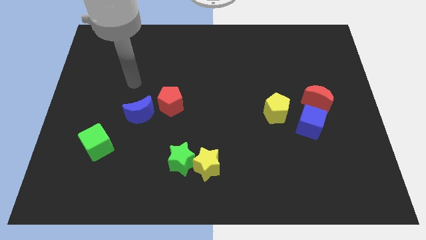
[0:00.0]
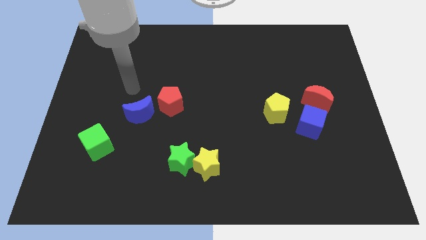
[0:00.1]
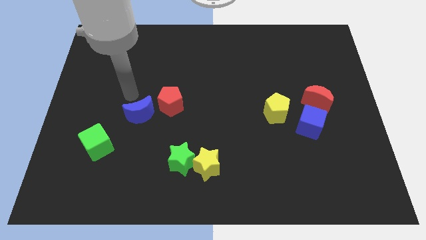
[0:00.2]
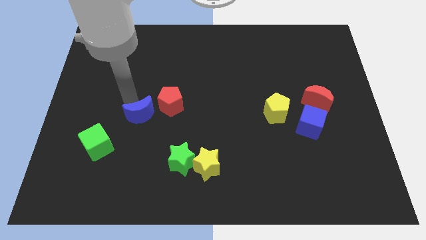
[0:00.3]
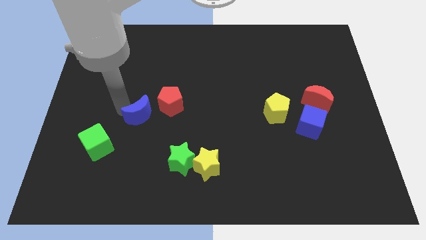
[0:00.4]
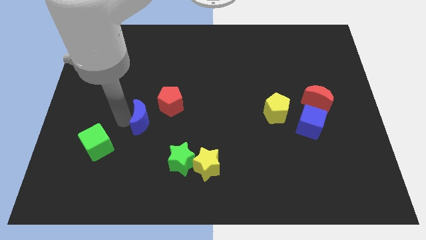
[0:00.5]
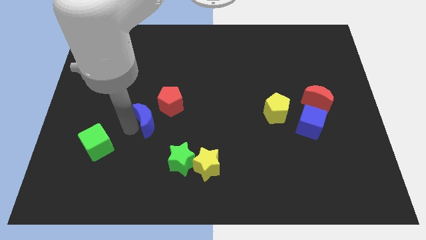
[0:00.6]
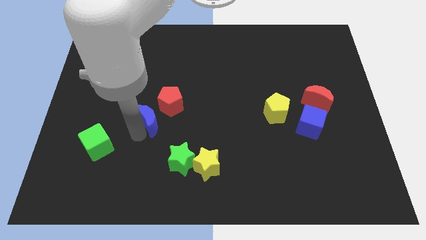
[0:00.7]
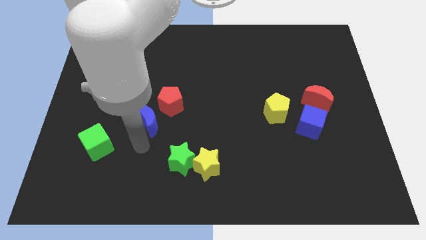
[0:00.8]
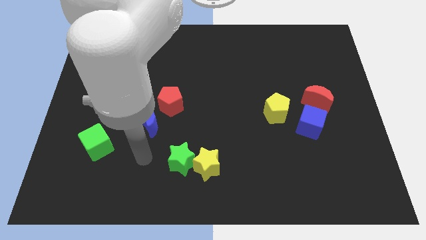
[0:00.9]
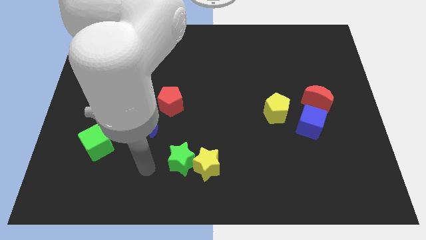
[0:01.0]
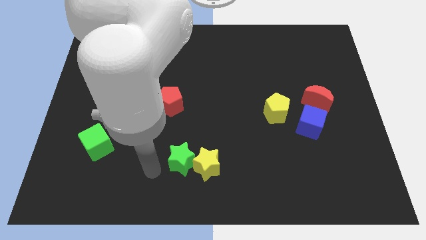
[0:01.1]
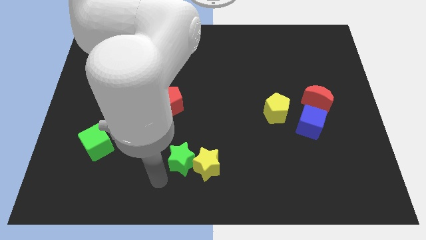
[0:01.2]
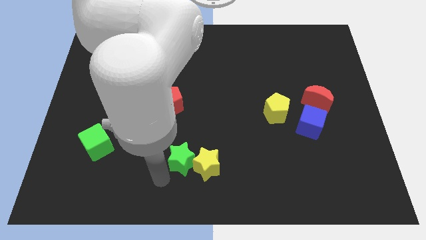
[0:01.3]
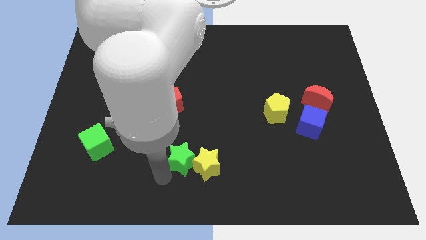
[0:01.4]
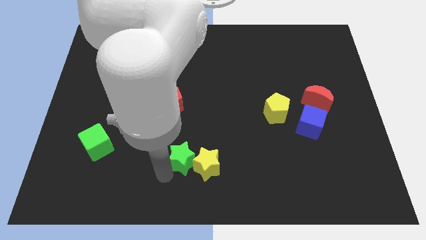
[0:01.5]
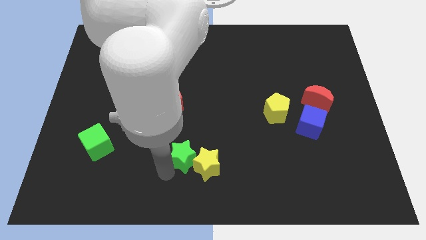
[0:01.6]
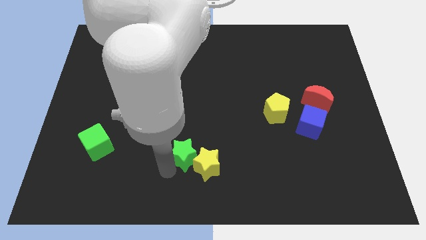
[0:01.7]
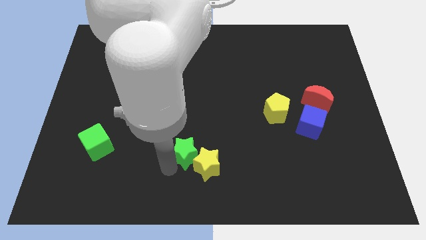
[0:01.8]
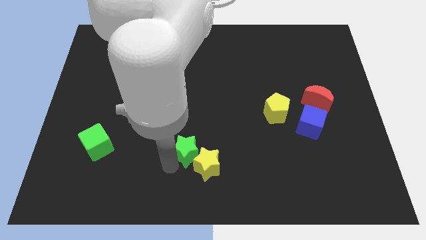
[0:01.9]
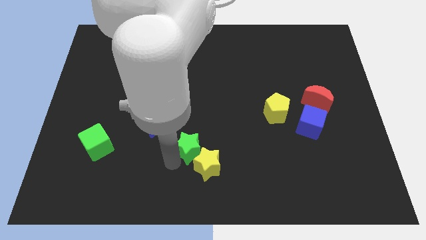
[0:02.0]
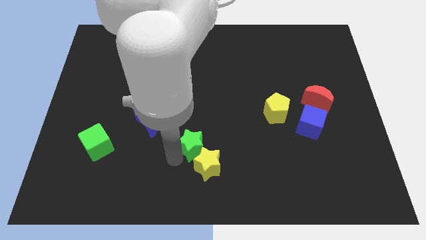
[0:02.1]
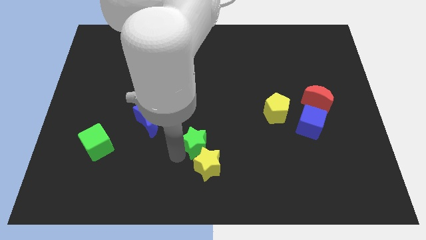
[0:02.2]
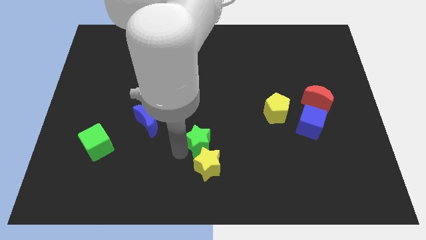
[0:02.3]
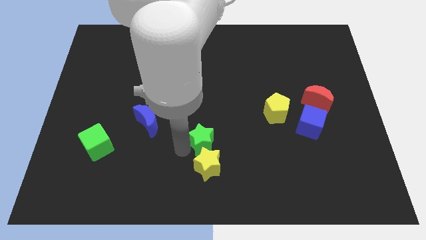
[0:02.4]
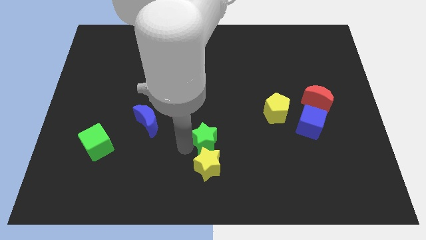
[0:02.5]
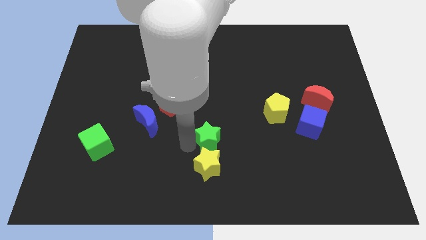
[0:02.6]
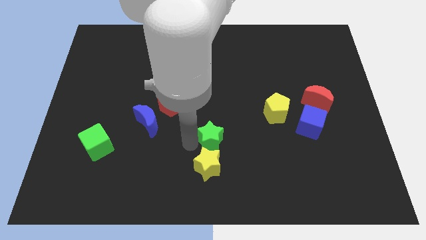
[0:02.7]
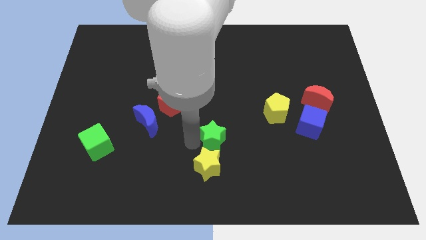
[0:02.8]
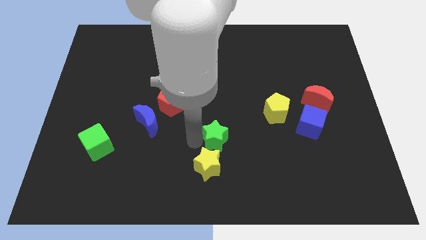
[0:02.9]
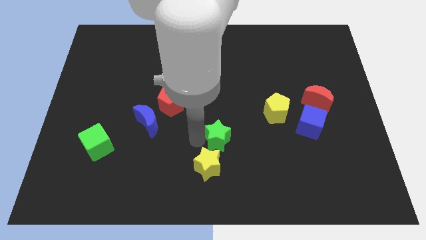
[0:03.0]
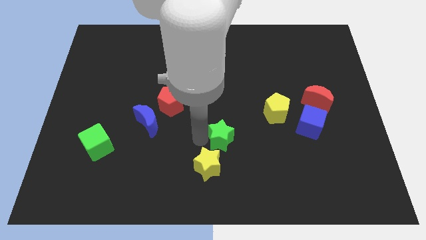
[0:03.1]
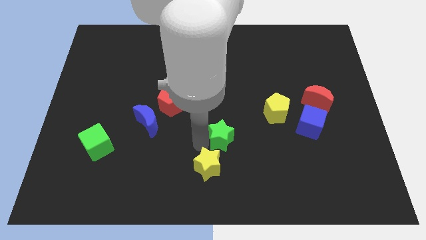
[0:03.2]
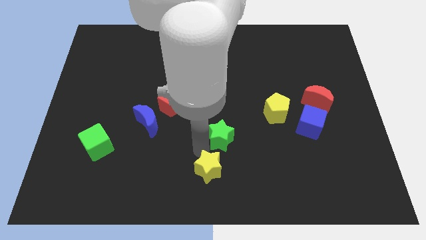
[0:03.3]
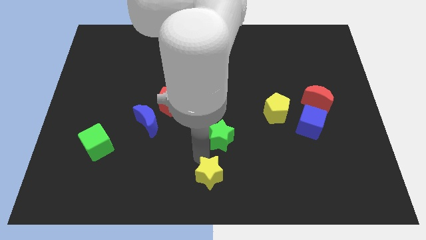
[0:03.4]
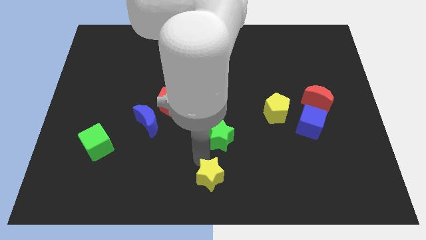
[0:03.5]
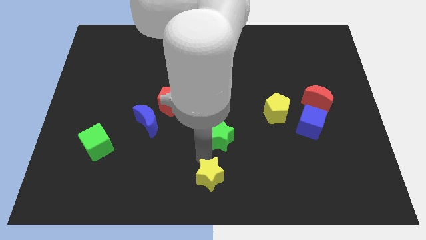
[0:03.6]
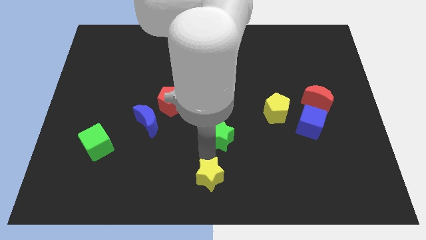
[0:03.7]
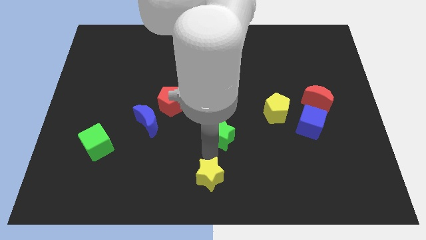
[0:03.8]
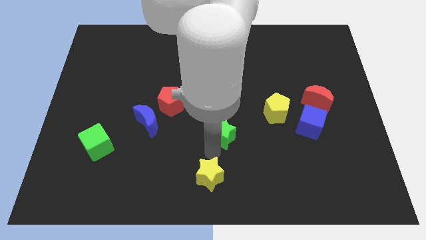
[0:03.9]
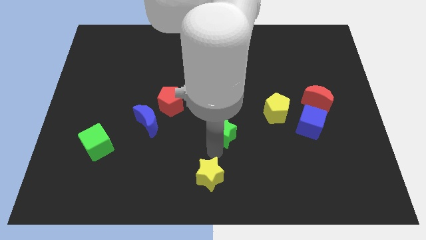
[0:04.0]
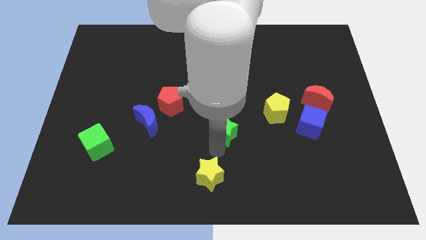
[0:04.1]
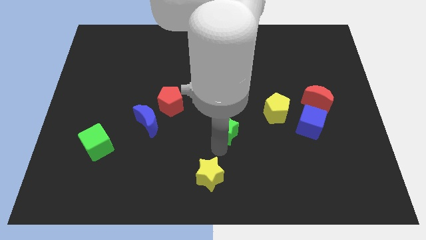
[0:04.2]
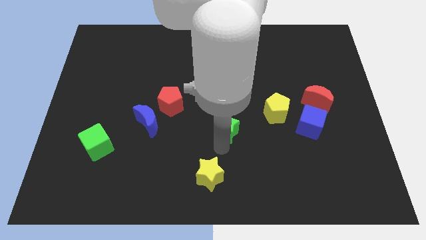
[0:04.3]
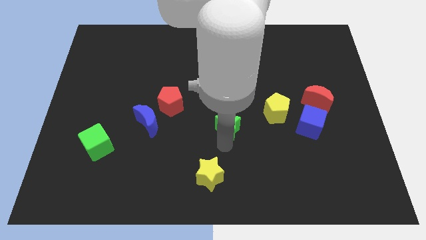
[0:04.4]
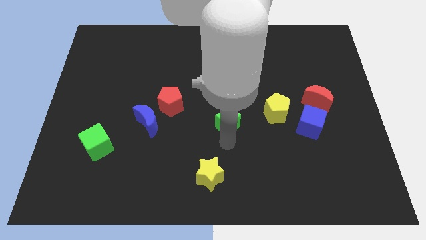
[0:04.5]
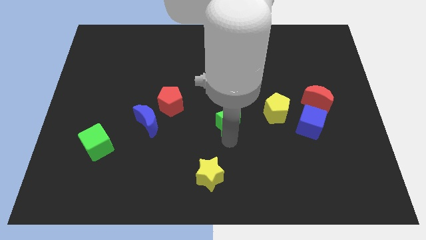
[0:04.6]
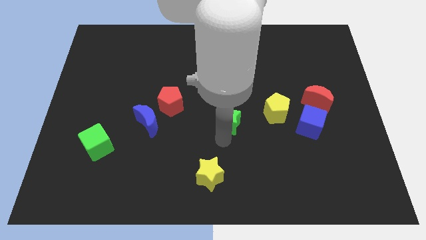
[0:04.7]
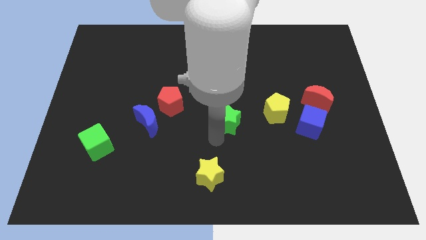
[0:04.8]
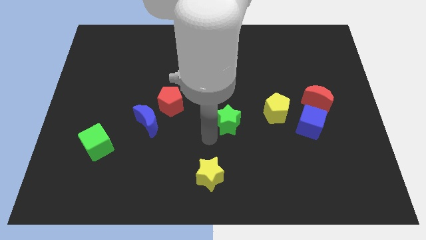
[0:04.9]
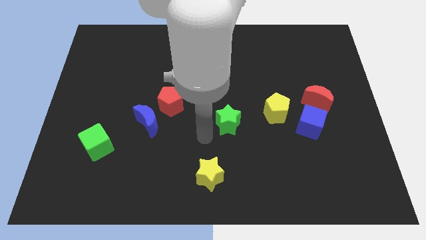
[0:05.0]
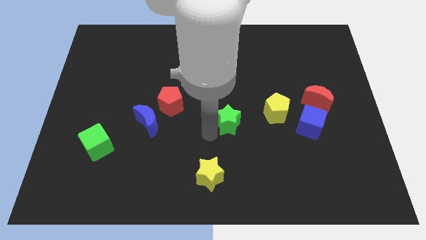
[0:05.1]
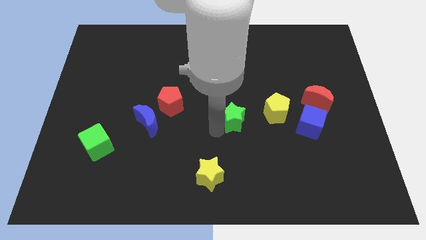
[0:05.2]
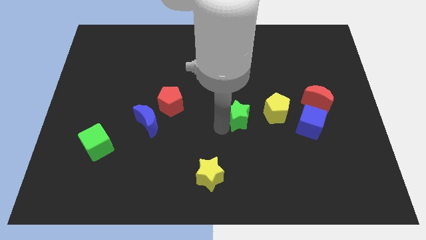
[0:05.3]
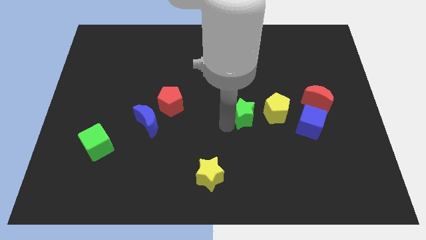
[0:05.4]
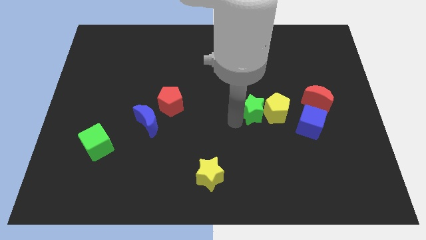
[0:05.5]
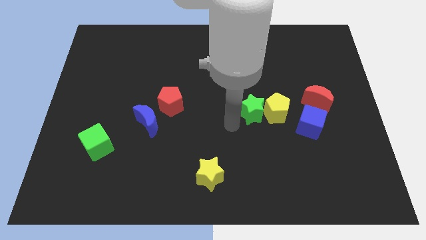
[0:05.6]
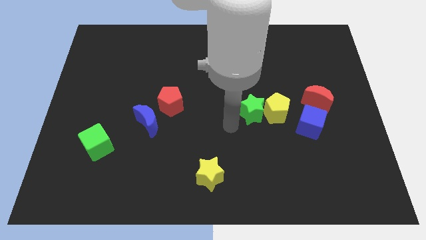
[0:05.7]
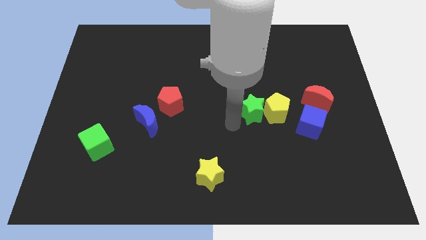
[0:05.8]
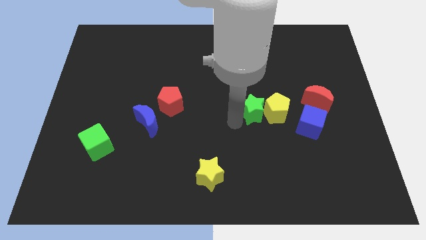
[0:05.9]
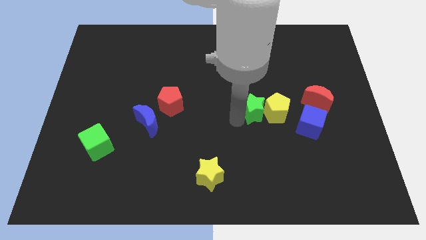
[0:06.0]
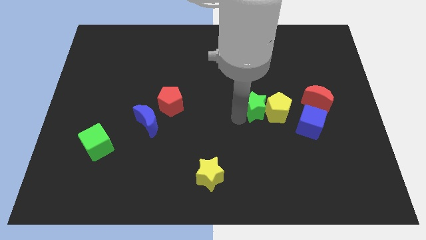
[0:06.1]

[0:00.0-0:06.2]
push the green star just left of the red moon

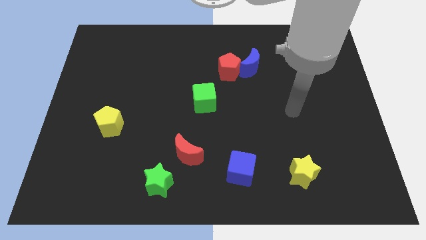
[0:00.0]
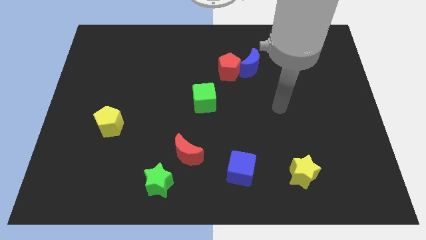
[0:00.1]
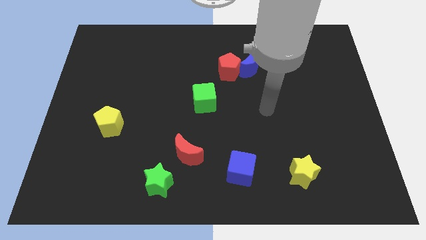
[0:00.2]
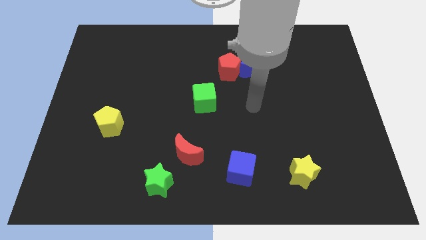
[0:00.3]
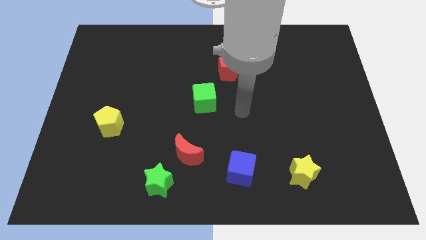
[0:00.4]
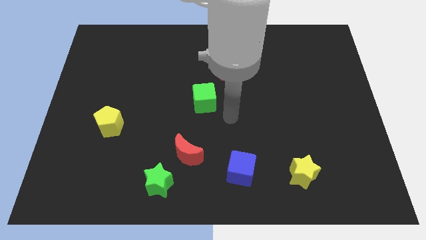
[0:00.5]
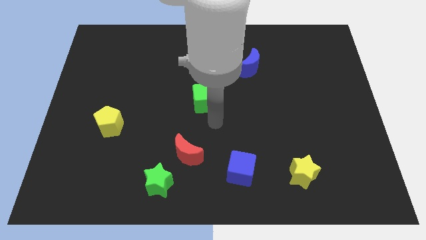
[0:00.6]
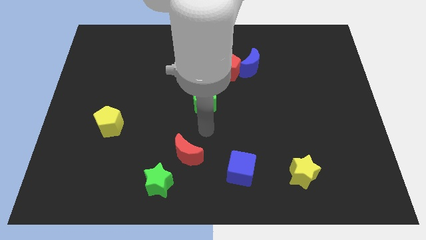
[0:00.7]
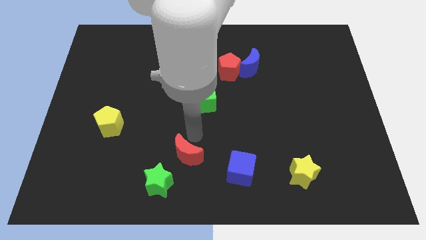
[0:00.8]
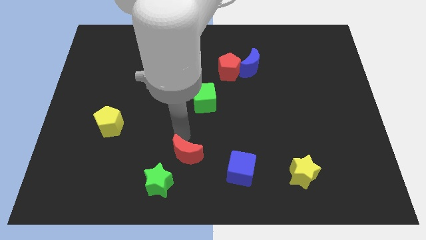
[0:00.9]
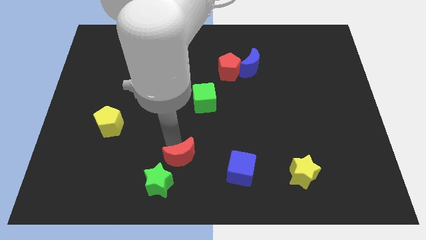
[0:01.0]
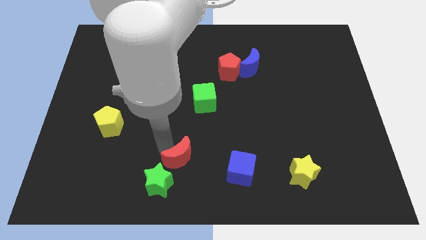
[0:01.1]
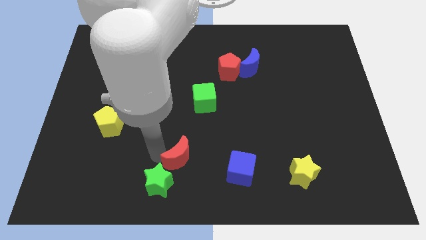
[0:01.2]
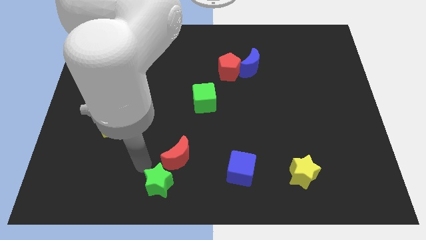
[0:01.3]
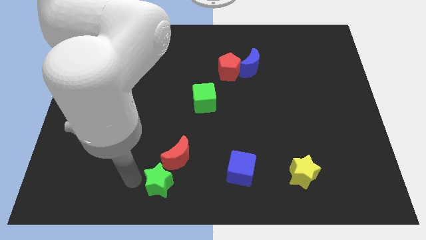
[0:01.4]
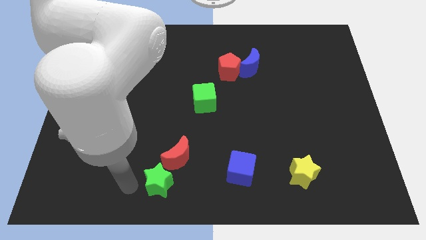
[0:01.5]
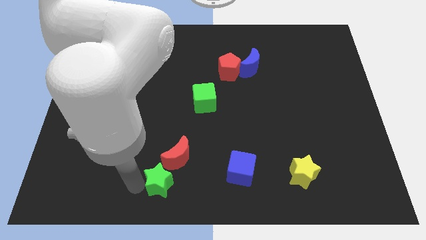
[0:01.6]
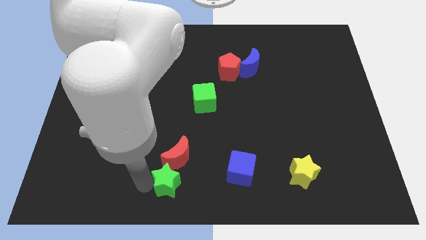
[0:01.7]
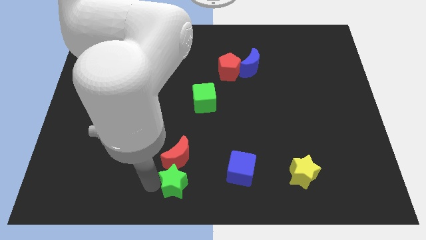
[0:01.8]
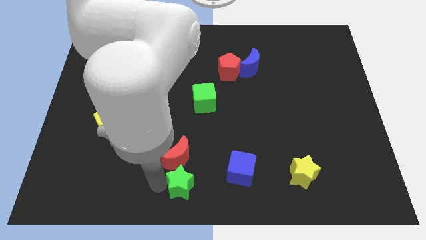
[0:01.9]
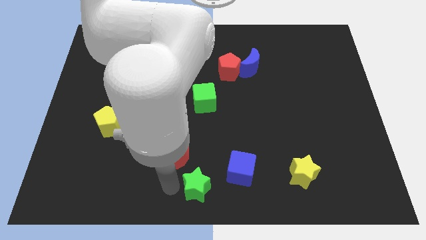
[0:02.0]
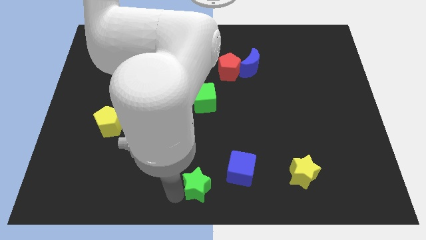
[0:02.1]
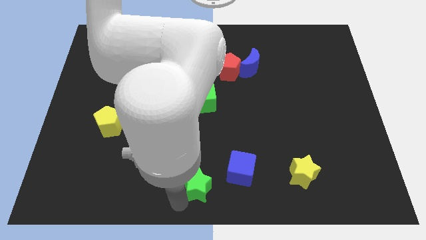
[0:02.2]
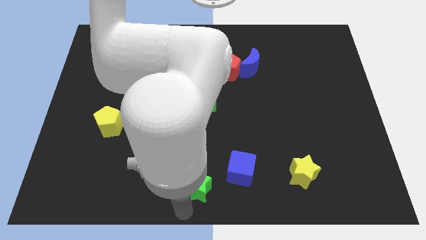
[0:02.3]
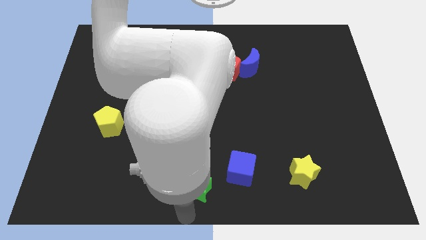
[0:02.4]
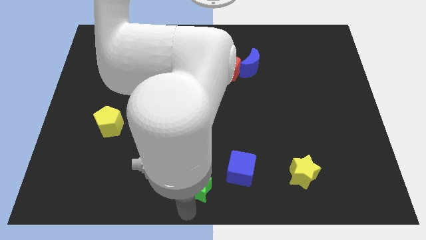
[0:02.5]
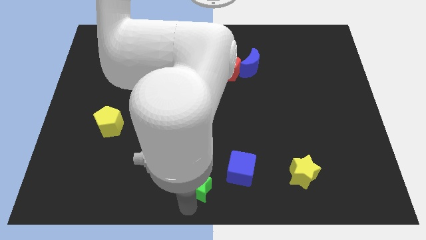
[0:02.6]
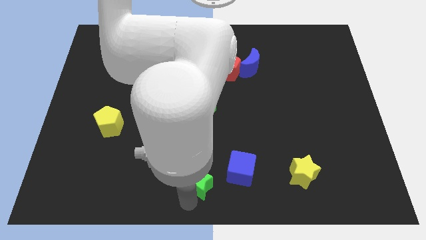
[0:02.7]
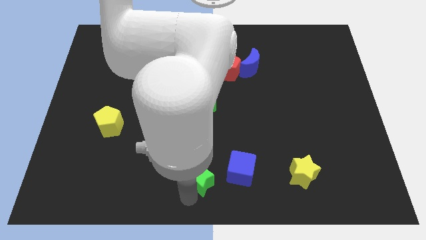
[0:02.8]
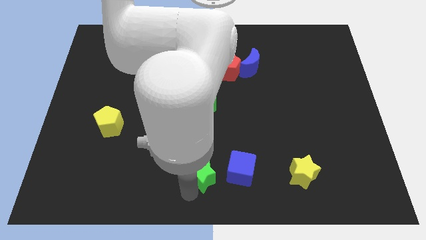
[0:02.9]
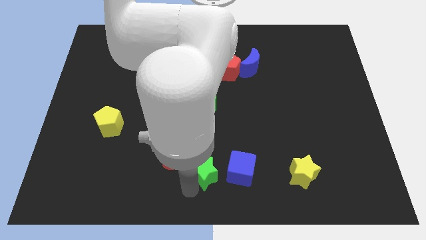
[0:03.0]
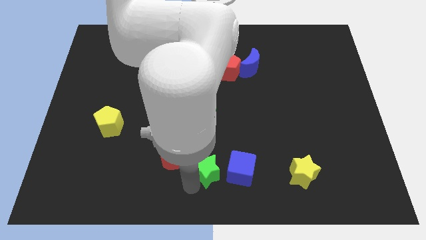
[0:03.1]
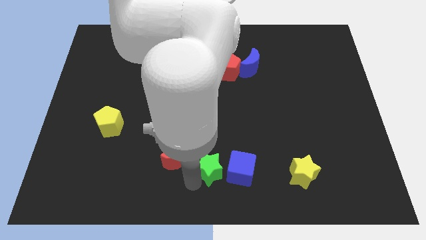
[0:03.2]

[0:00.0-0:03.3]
slide the green star to the top left side of the blue cube
